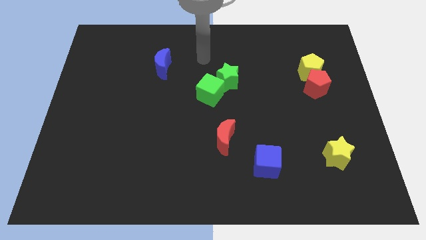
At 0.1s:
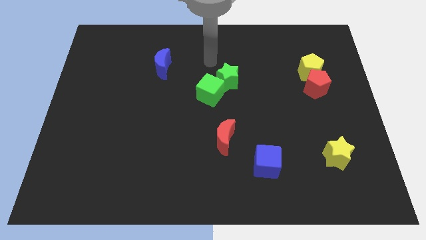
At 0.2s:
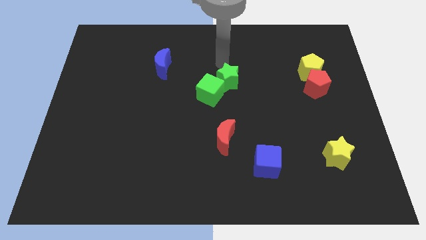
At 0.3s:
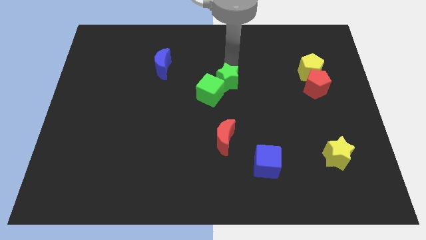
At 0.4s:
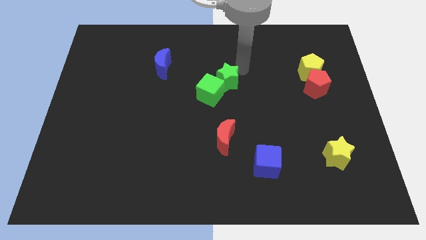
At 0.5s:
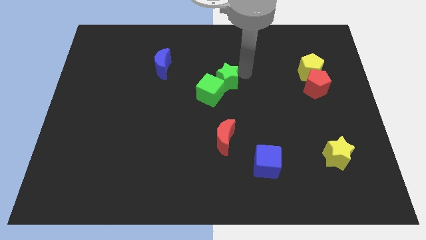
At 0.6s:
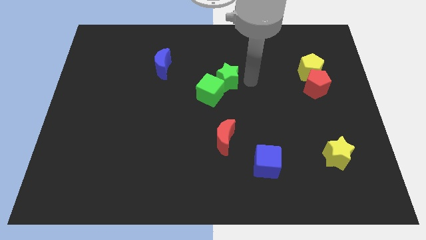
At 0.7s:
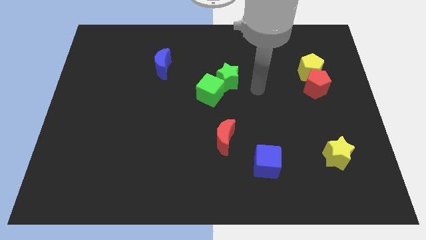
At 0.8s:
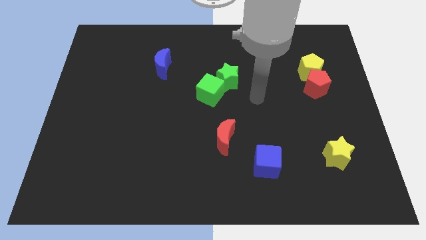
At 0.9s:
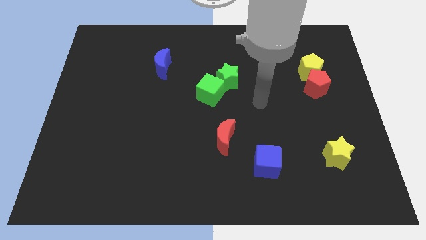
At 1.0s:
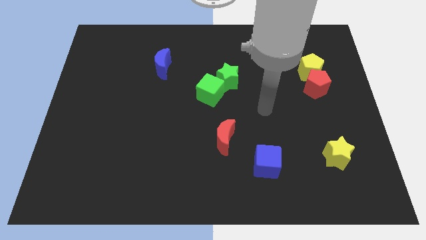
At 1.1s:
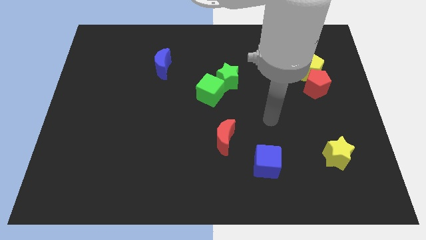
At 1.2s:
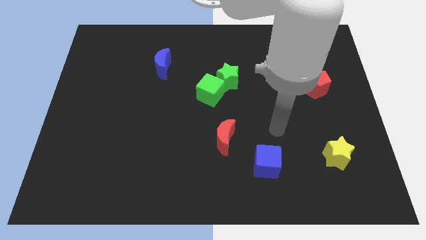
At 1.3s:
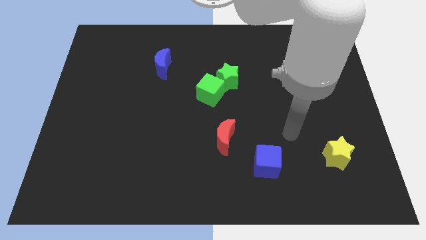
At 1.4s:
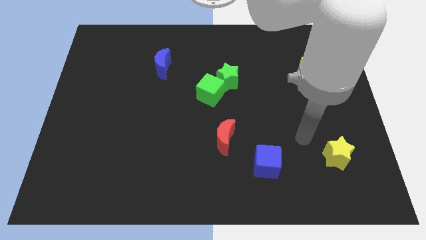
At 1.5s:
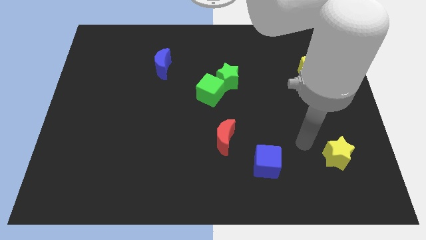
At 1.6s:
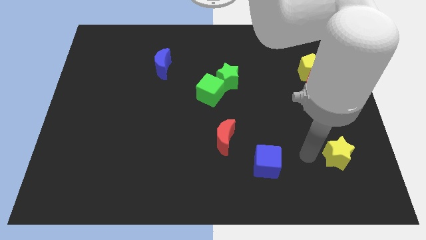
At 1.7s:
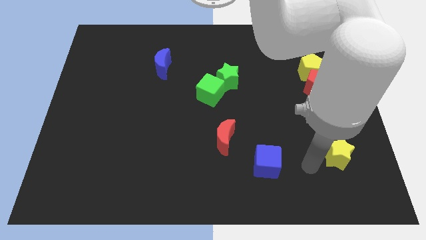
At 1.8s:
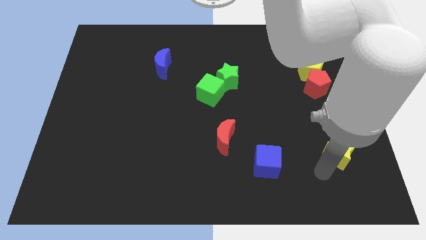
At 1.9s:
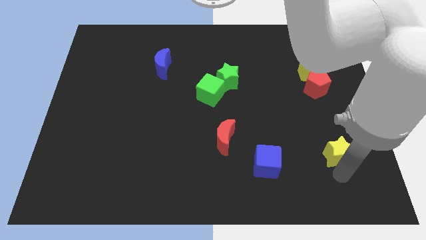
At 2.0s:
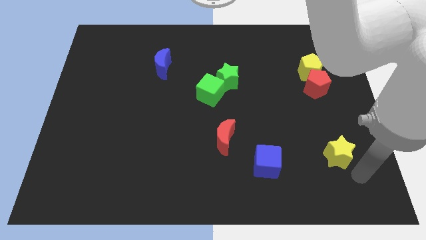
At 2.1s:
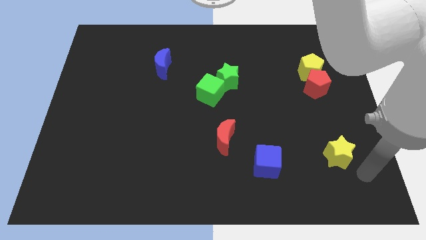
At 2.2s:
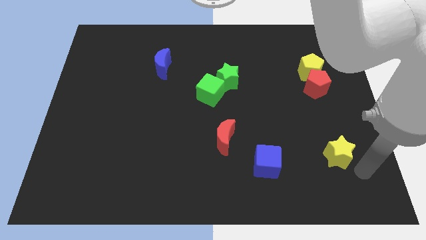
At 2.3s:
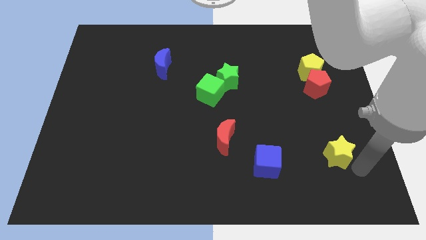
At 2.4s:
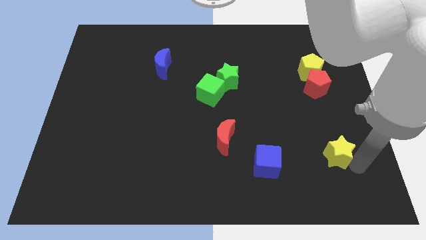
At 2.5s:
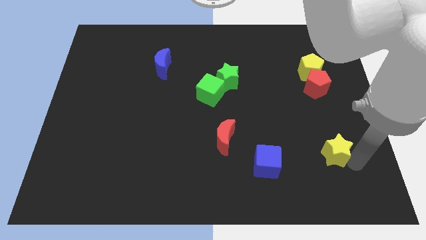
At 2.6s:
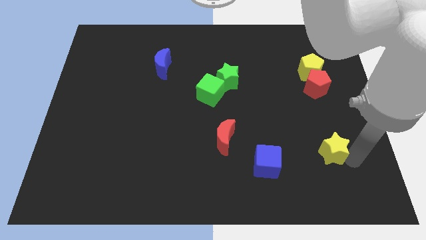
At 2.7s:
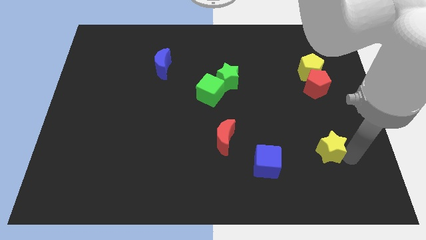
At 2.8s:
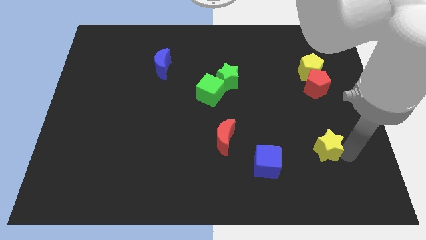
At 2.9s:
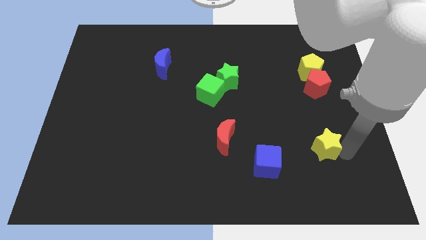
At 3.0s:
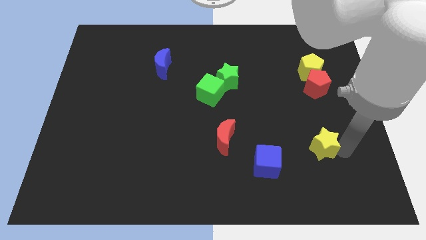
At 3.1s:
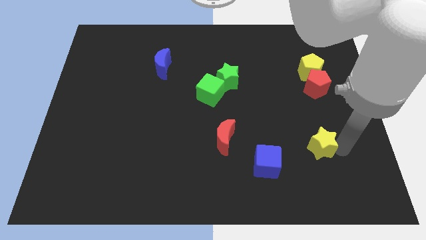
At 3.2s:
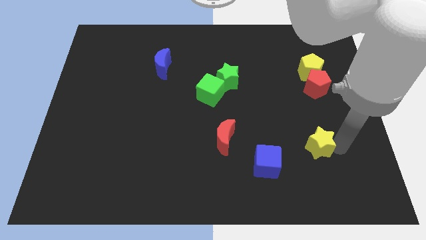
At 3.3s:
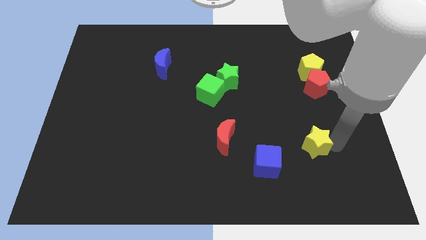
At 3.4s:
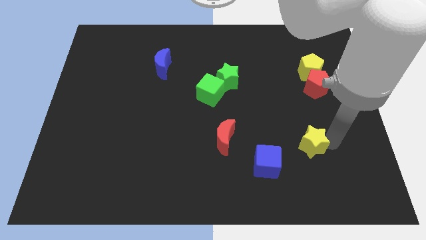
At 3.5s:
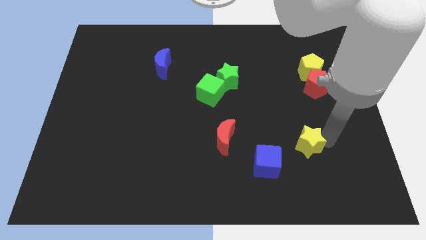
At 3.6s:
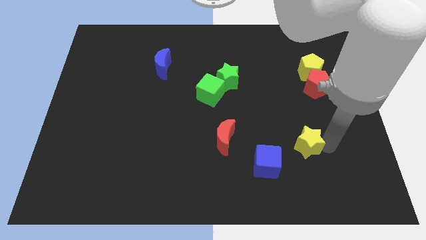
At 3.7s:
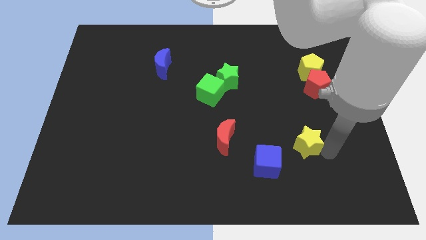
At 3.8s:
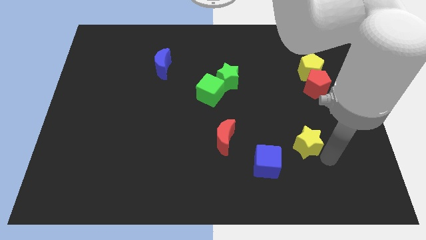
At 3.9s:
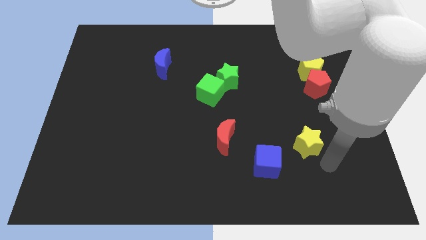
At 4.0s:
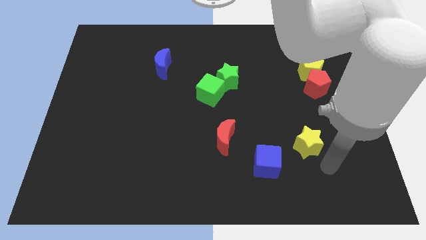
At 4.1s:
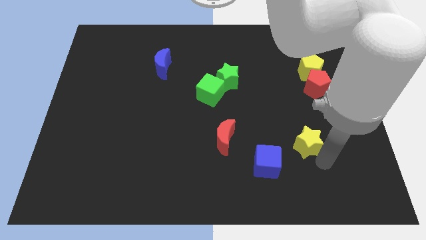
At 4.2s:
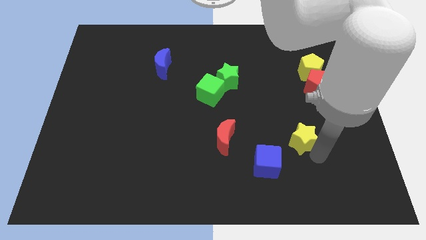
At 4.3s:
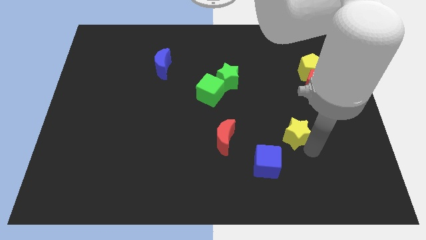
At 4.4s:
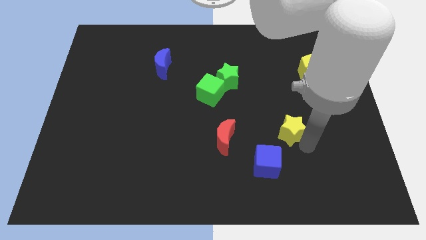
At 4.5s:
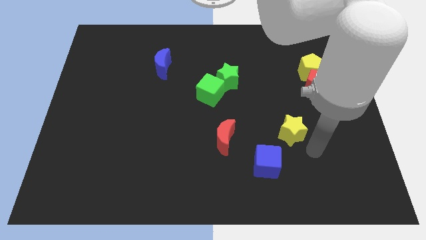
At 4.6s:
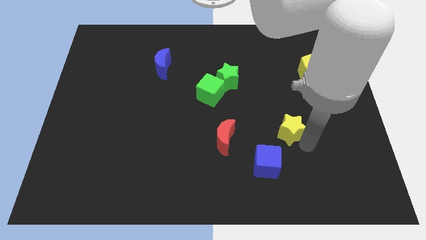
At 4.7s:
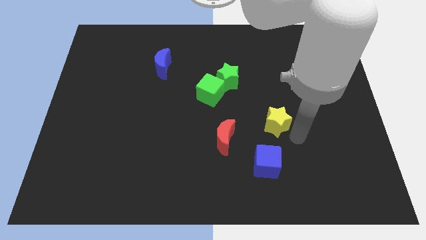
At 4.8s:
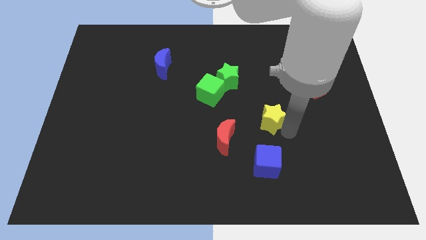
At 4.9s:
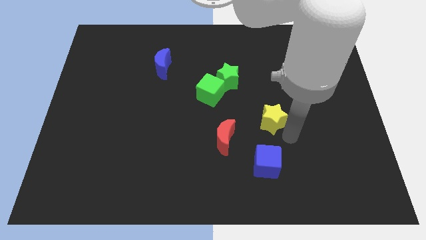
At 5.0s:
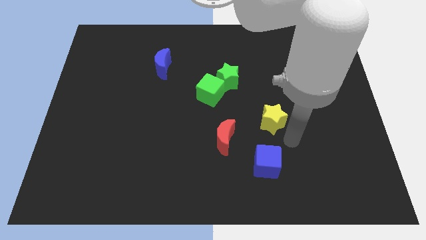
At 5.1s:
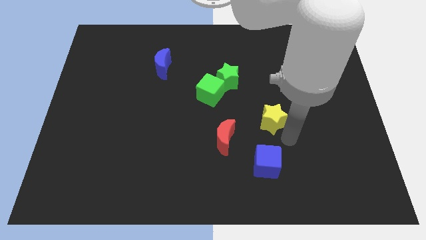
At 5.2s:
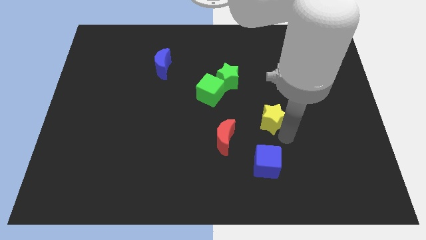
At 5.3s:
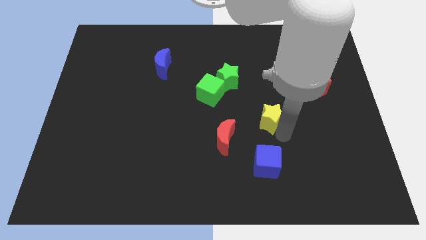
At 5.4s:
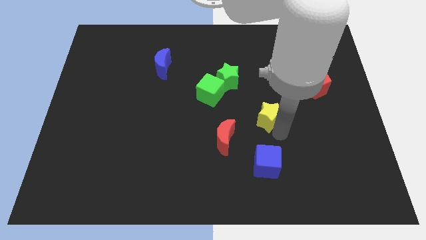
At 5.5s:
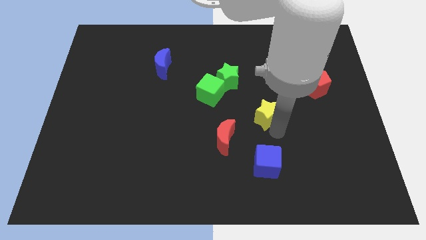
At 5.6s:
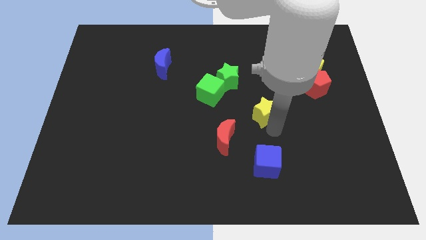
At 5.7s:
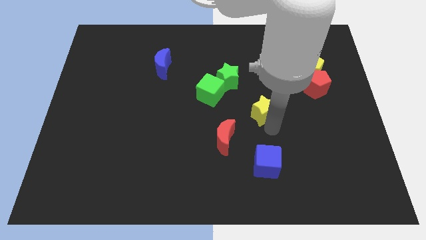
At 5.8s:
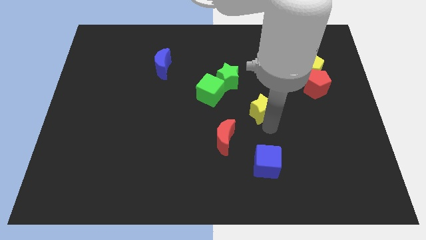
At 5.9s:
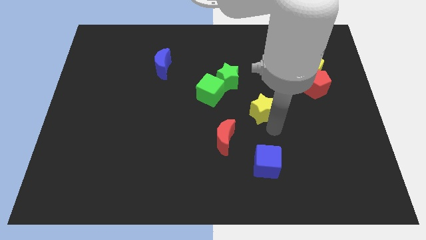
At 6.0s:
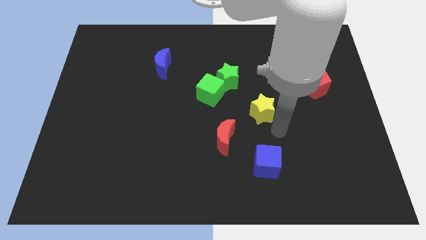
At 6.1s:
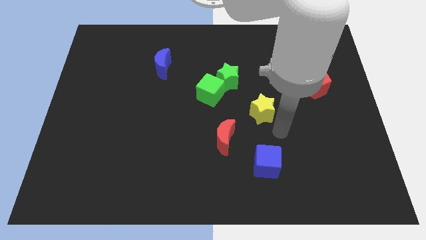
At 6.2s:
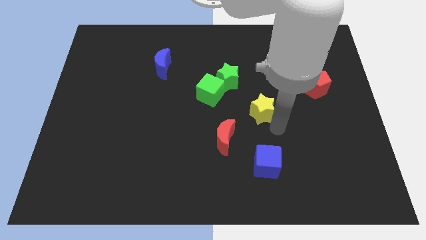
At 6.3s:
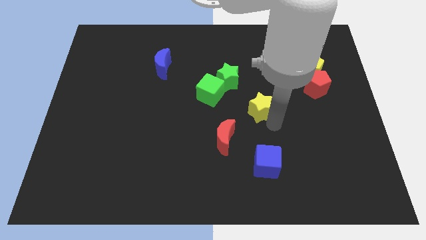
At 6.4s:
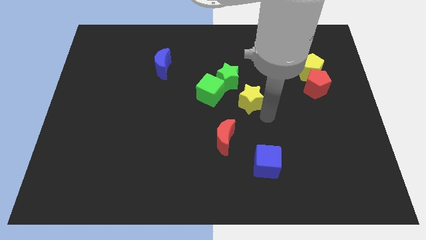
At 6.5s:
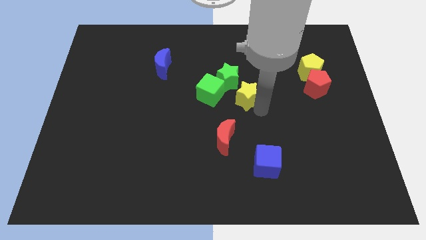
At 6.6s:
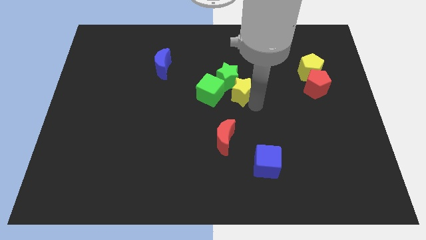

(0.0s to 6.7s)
push the yellow star close to the green star

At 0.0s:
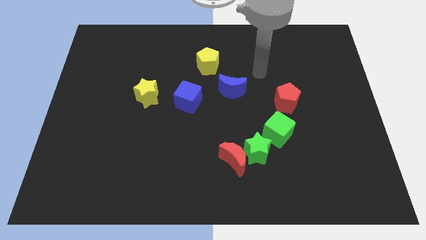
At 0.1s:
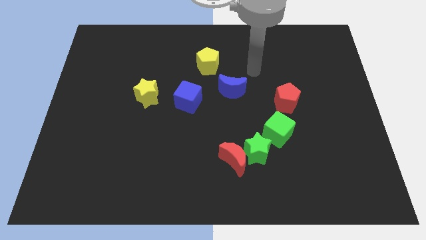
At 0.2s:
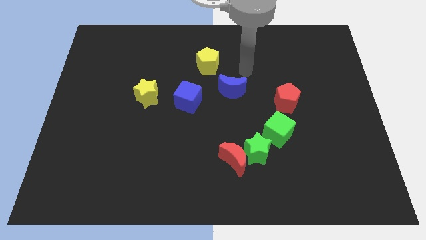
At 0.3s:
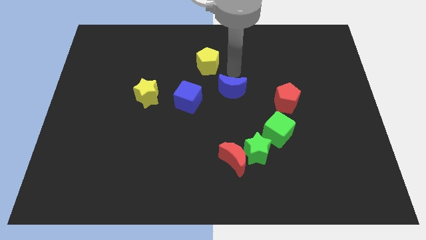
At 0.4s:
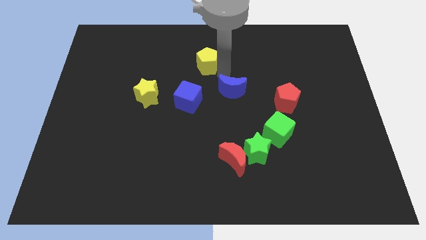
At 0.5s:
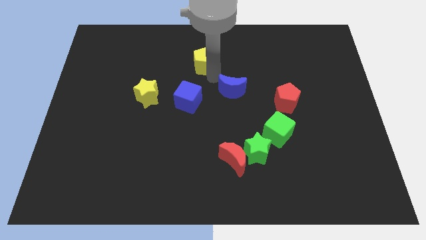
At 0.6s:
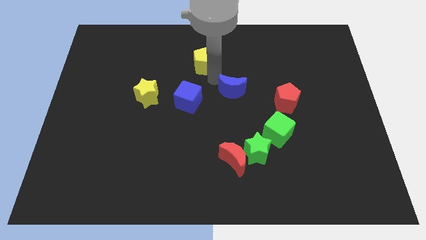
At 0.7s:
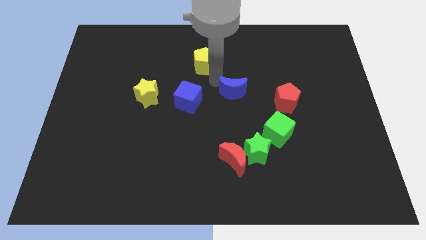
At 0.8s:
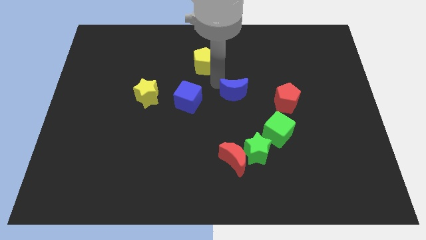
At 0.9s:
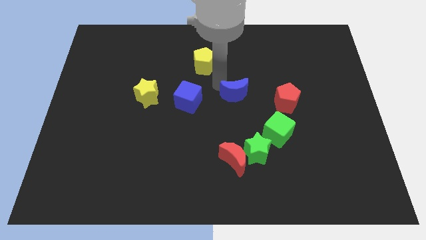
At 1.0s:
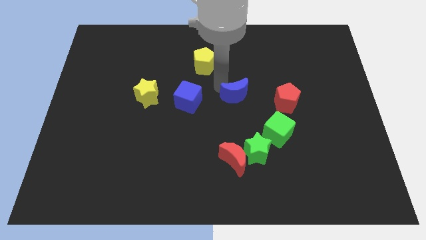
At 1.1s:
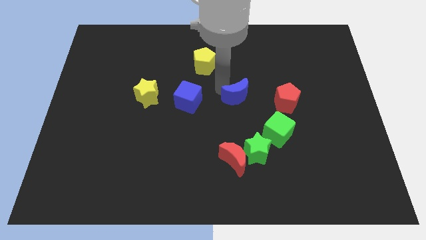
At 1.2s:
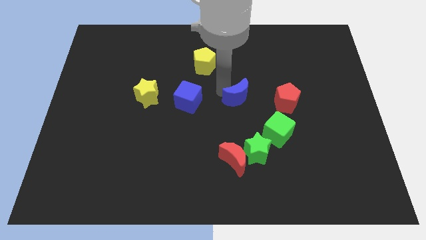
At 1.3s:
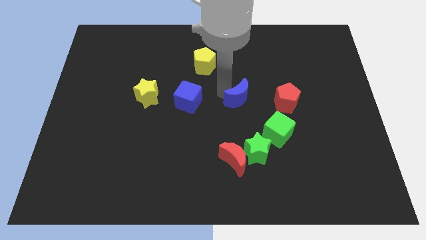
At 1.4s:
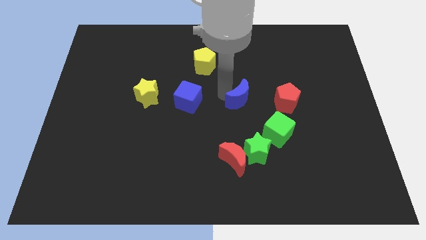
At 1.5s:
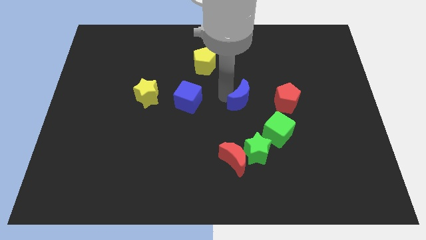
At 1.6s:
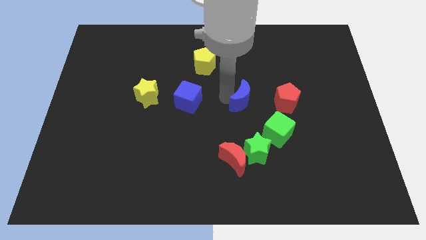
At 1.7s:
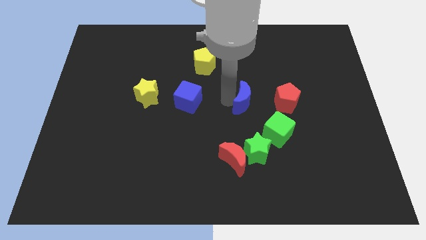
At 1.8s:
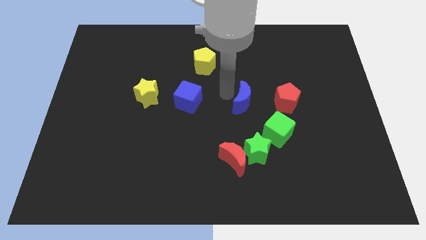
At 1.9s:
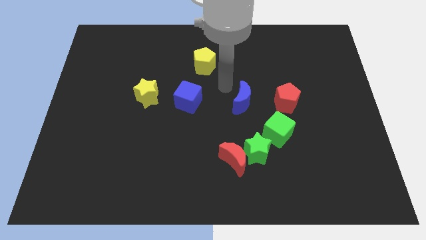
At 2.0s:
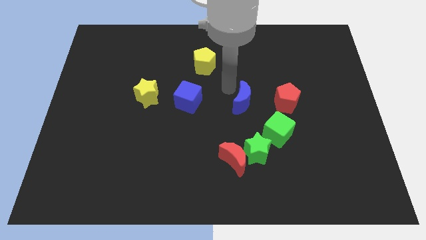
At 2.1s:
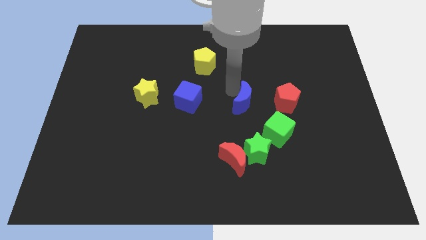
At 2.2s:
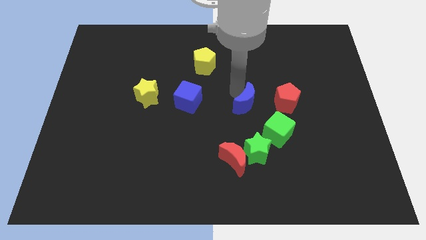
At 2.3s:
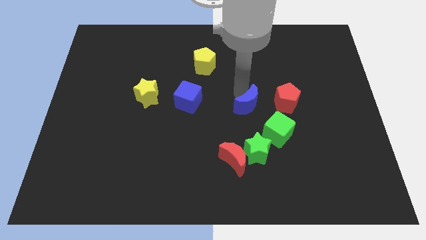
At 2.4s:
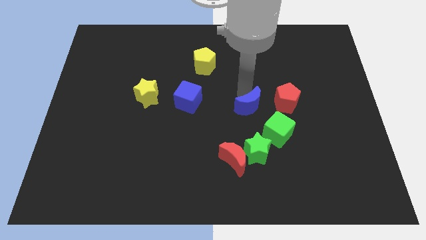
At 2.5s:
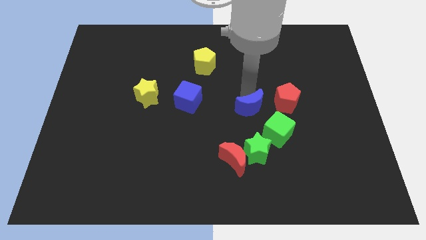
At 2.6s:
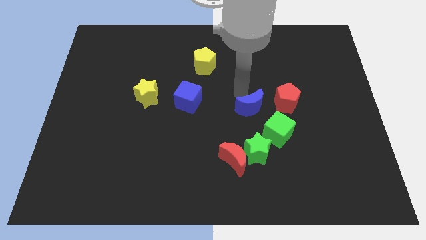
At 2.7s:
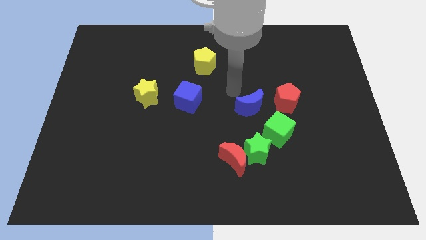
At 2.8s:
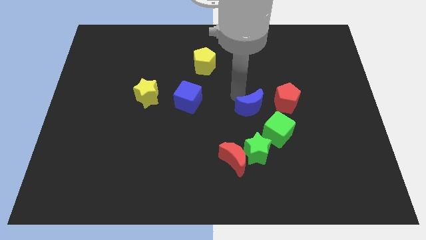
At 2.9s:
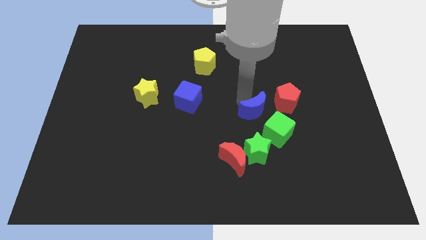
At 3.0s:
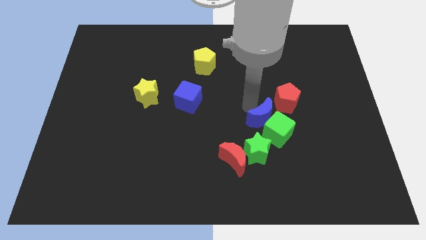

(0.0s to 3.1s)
push the blue moon to the green cube
